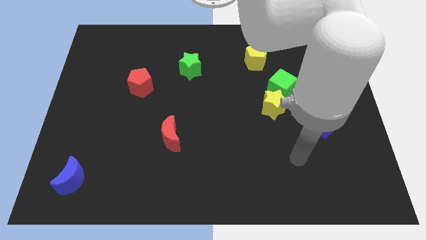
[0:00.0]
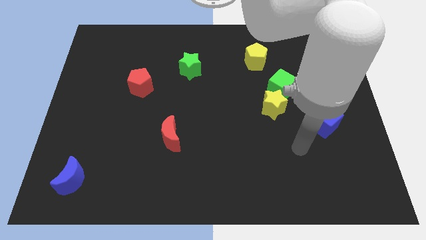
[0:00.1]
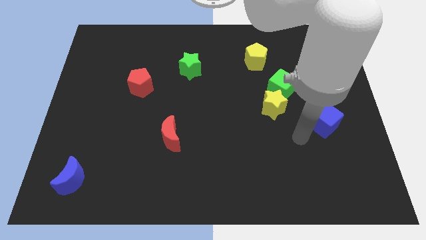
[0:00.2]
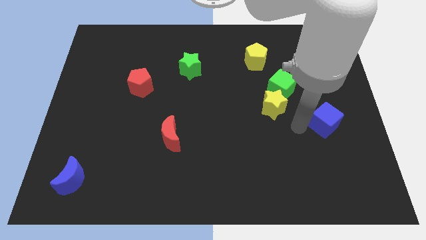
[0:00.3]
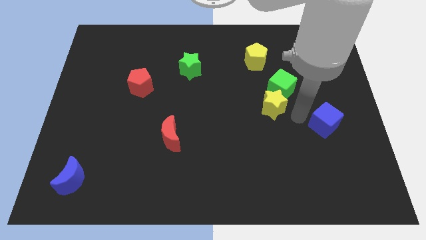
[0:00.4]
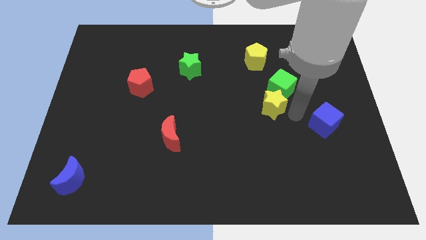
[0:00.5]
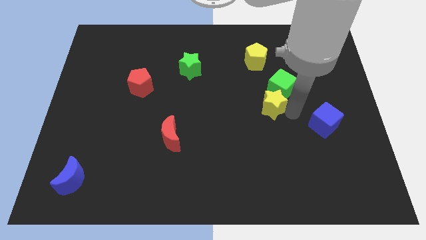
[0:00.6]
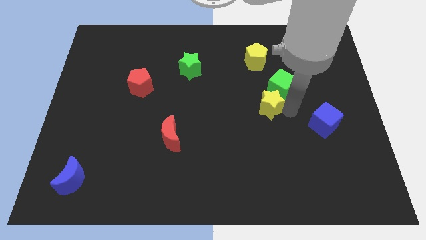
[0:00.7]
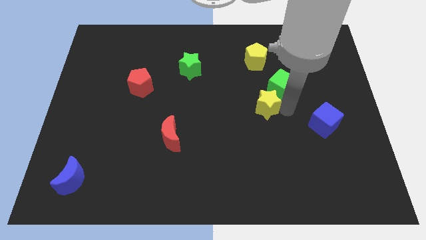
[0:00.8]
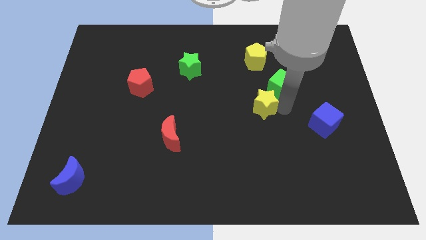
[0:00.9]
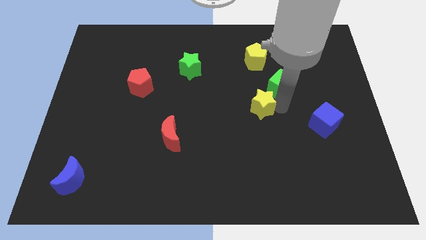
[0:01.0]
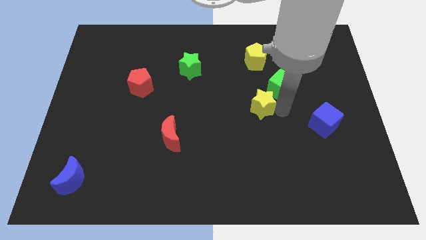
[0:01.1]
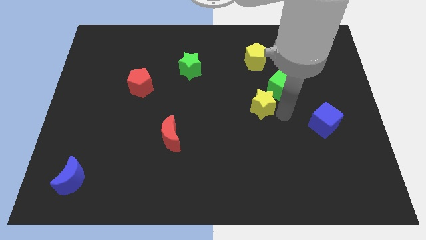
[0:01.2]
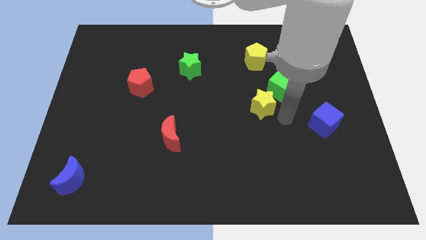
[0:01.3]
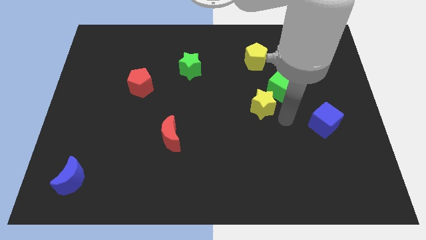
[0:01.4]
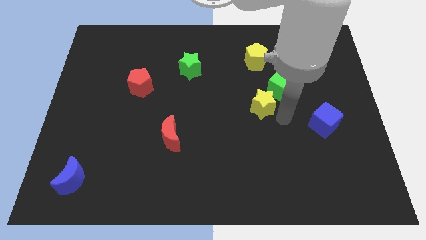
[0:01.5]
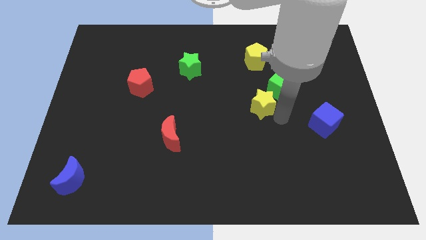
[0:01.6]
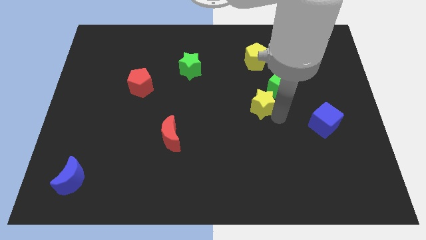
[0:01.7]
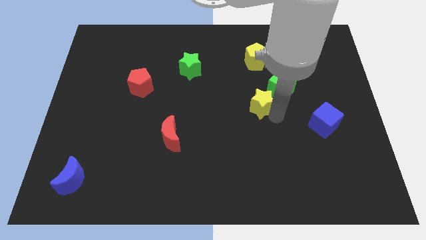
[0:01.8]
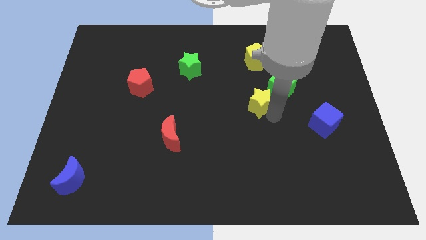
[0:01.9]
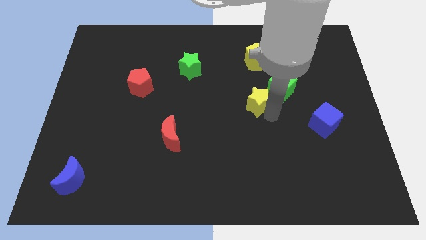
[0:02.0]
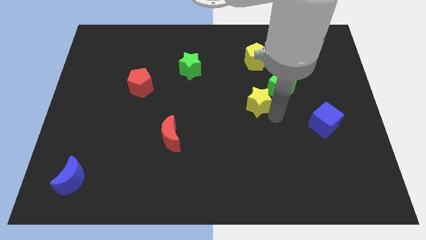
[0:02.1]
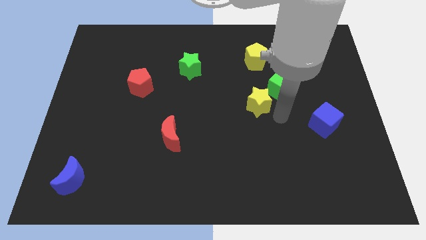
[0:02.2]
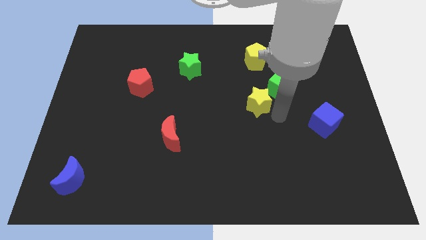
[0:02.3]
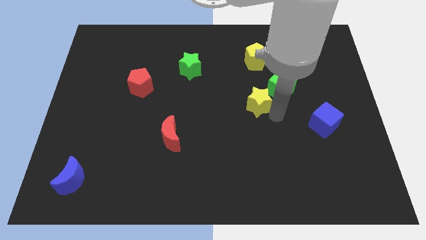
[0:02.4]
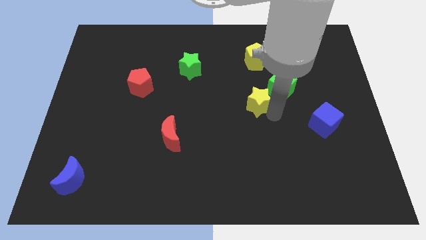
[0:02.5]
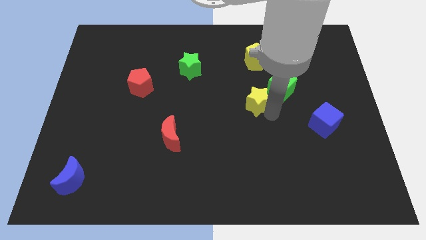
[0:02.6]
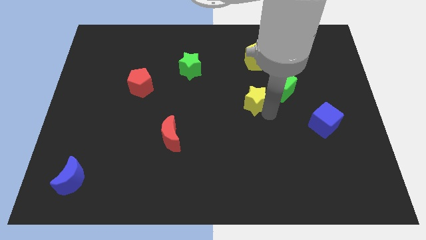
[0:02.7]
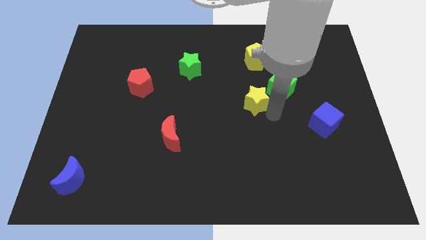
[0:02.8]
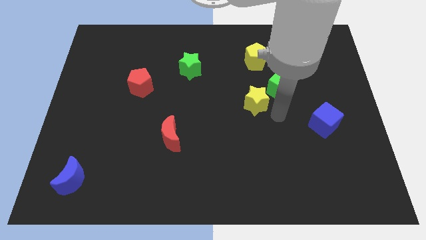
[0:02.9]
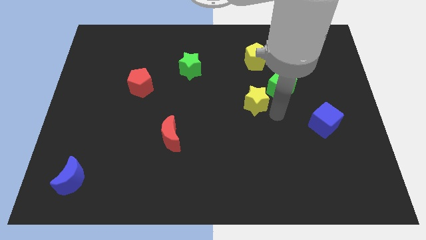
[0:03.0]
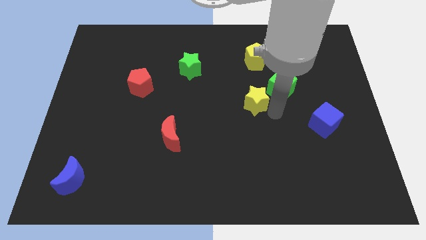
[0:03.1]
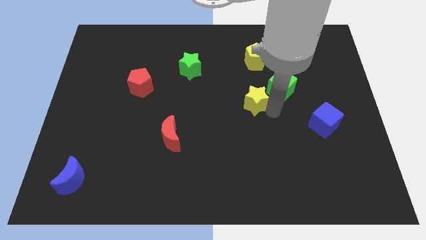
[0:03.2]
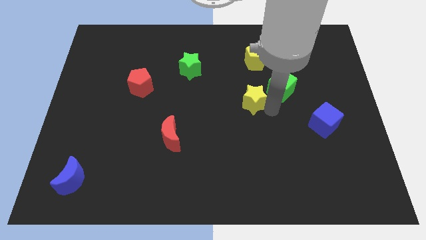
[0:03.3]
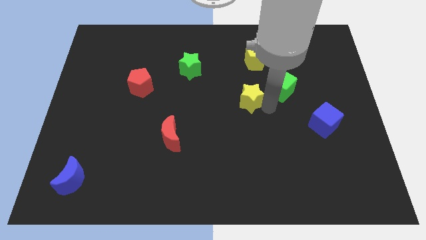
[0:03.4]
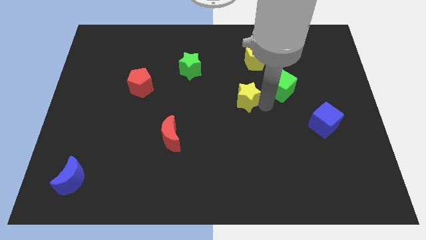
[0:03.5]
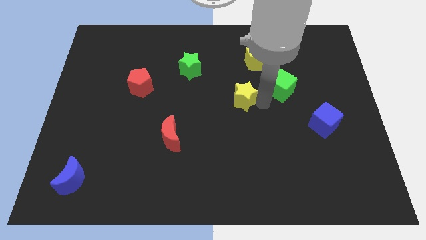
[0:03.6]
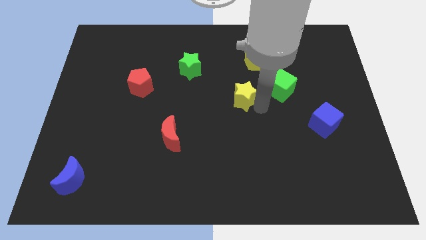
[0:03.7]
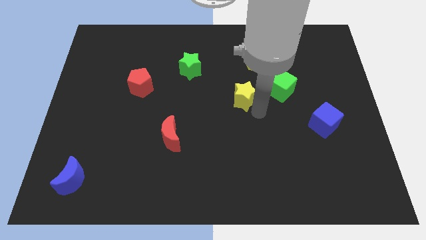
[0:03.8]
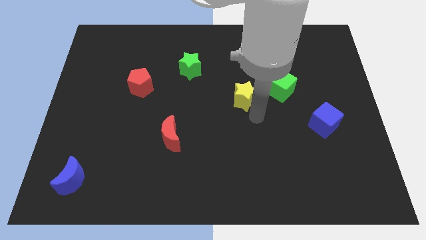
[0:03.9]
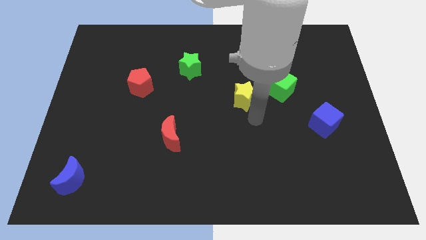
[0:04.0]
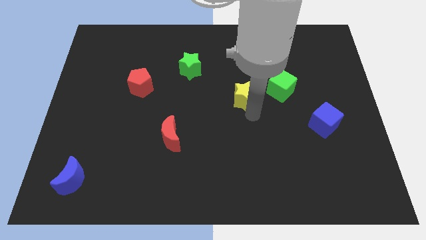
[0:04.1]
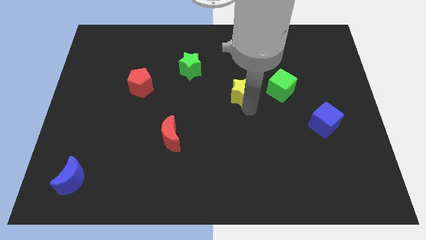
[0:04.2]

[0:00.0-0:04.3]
slightly push the yellow star up and then to the left

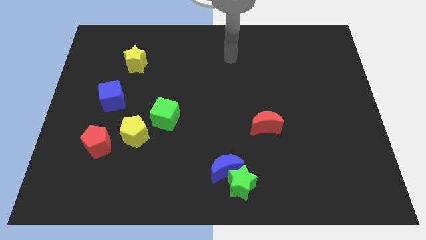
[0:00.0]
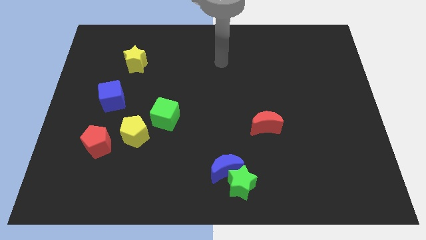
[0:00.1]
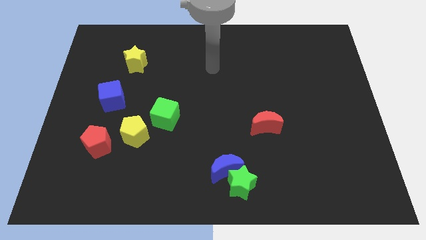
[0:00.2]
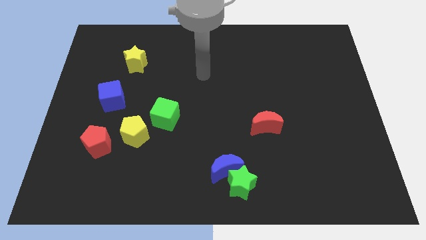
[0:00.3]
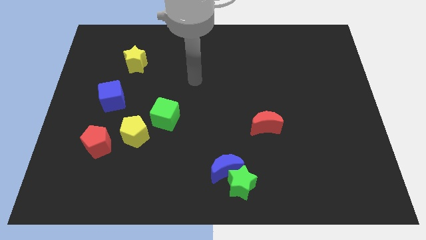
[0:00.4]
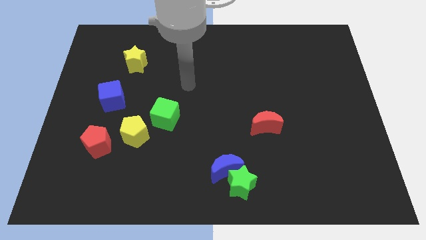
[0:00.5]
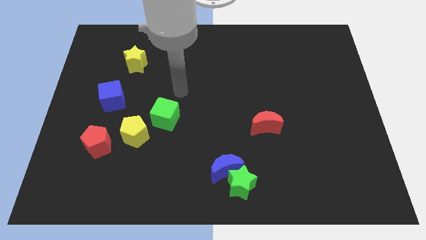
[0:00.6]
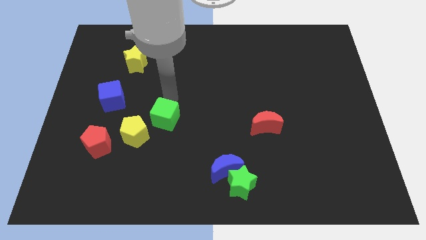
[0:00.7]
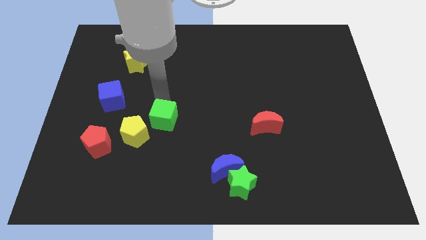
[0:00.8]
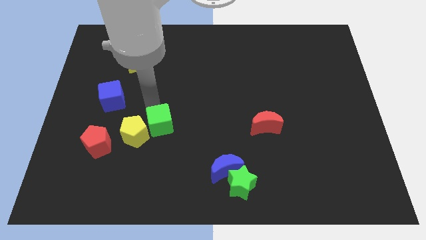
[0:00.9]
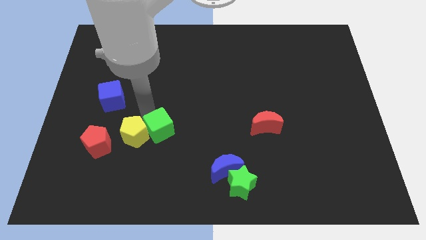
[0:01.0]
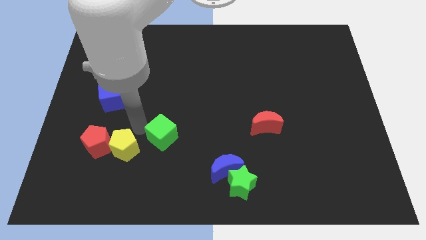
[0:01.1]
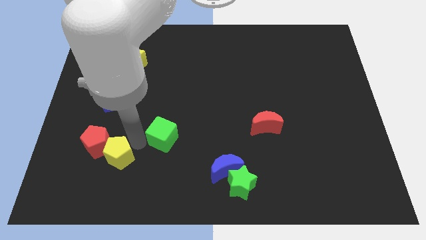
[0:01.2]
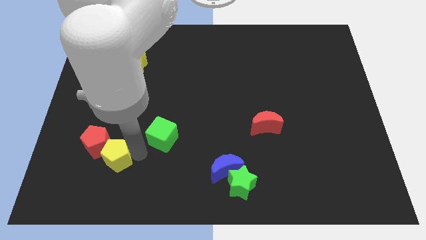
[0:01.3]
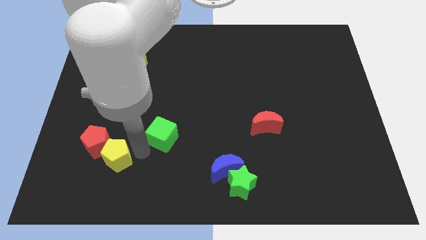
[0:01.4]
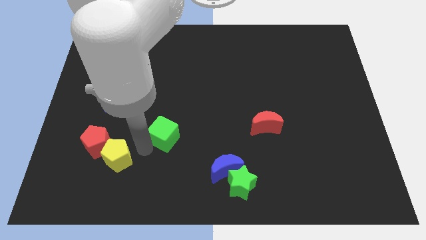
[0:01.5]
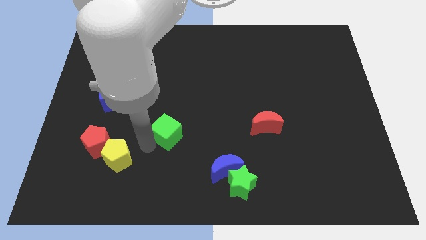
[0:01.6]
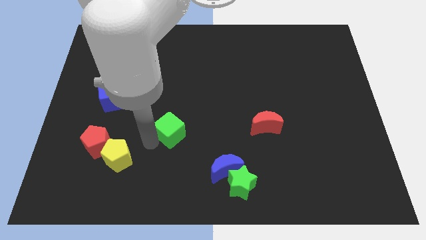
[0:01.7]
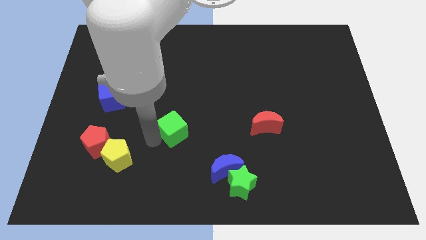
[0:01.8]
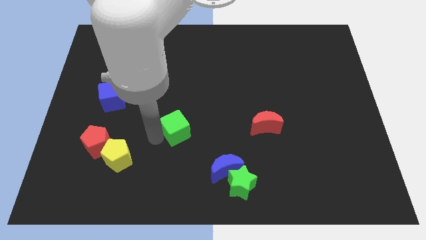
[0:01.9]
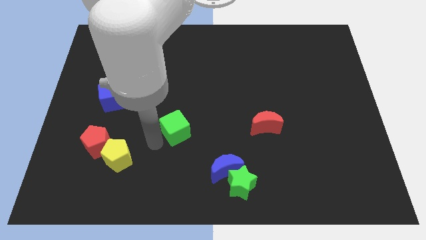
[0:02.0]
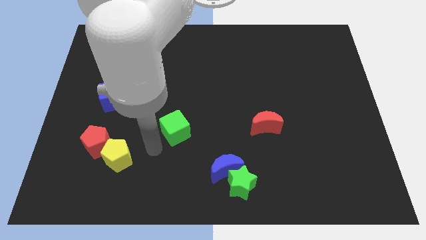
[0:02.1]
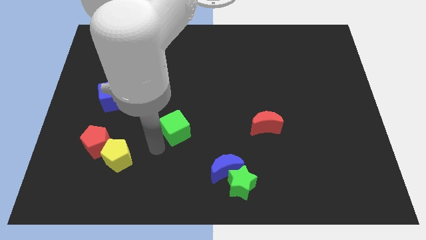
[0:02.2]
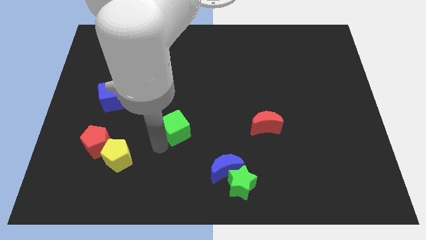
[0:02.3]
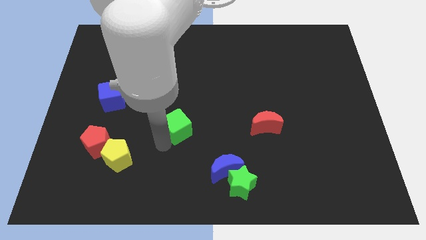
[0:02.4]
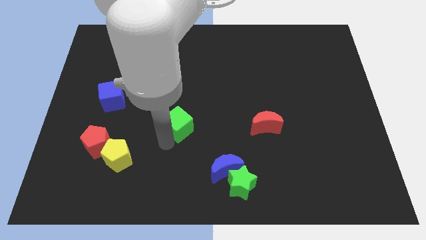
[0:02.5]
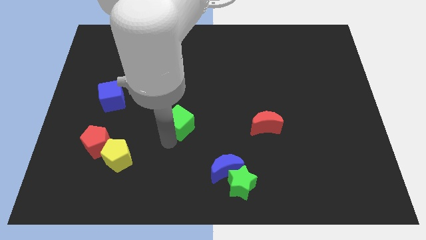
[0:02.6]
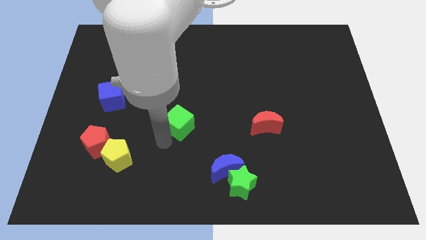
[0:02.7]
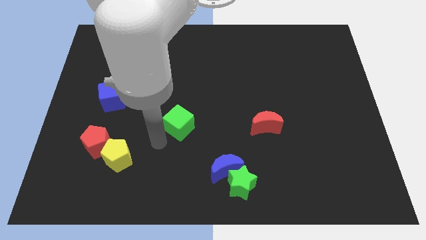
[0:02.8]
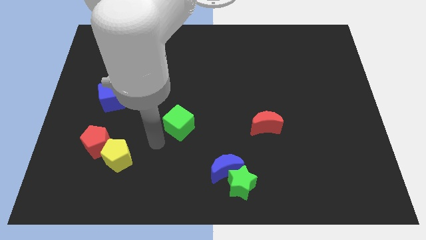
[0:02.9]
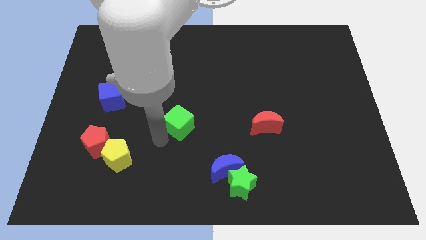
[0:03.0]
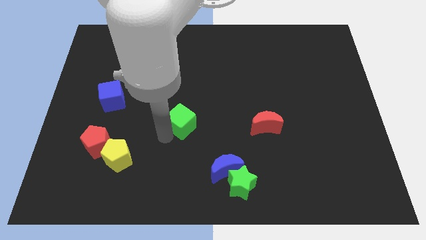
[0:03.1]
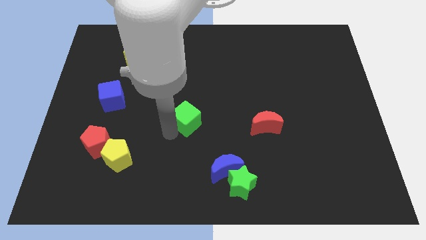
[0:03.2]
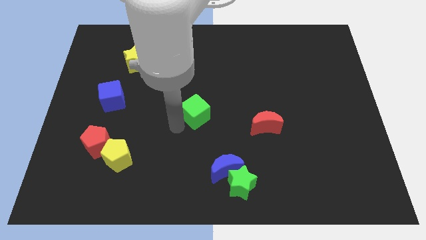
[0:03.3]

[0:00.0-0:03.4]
slightly slide the green cube right

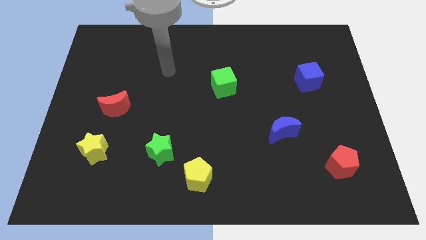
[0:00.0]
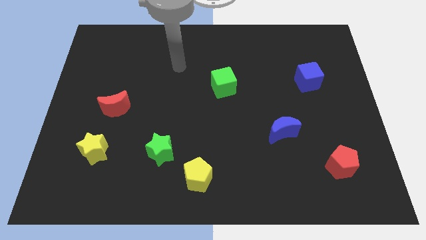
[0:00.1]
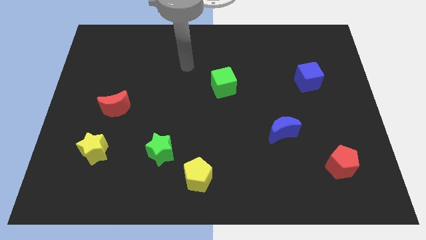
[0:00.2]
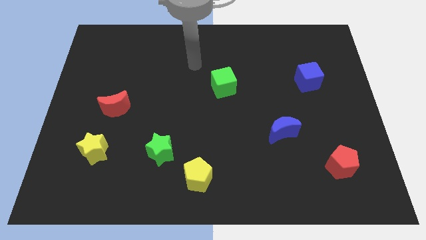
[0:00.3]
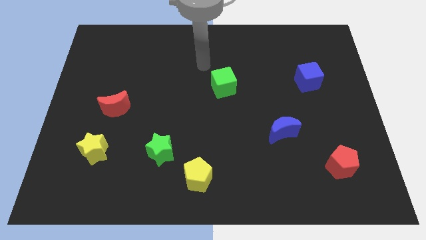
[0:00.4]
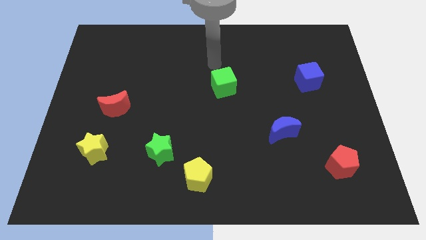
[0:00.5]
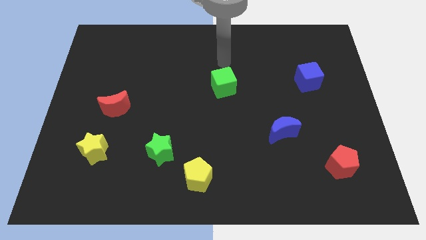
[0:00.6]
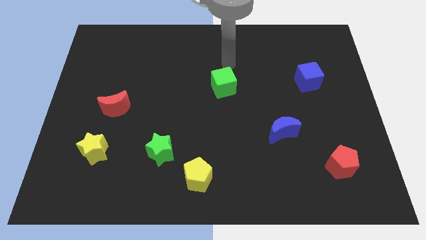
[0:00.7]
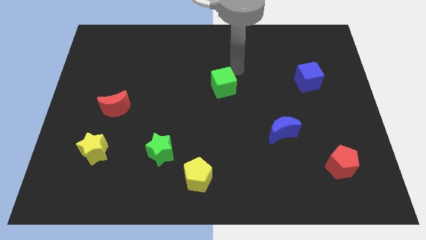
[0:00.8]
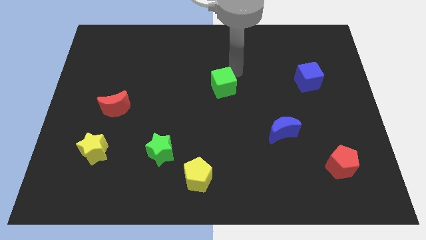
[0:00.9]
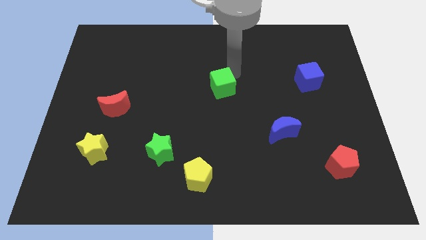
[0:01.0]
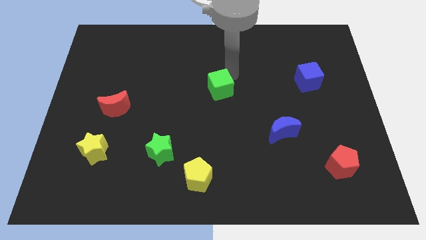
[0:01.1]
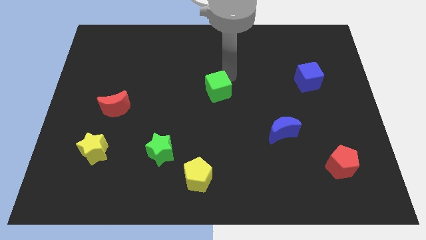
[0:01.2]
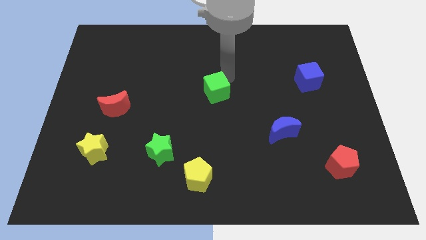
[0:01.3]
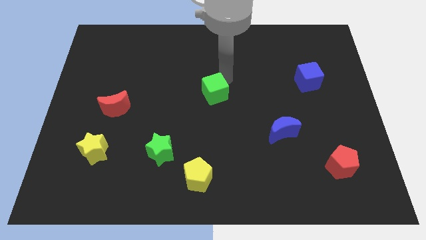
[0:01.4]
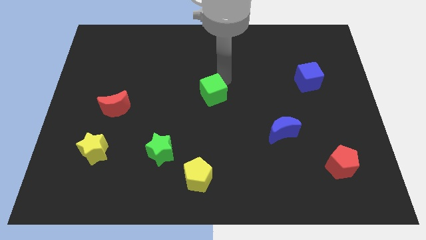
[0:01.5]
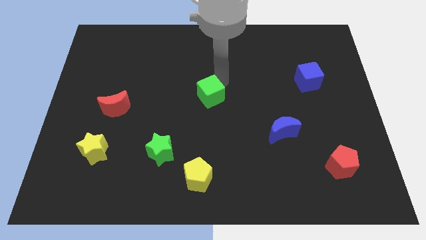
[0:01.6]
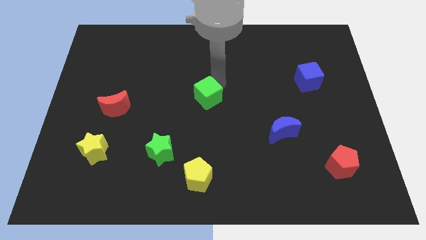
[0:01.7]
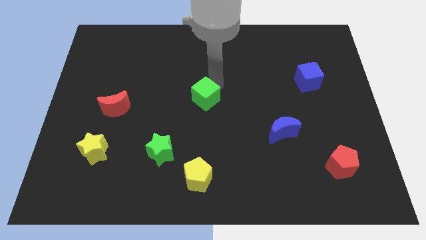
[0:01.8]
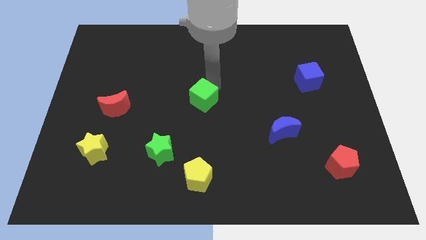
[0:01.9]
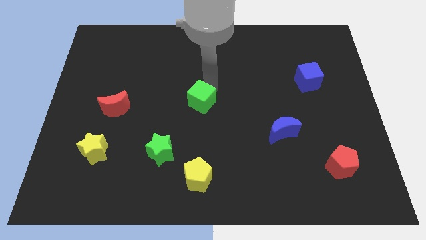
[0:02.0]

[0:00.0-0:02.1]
move the green cube somewhat downwards and then to the left
